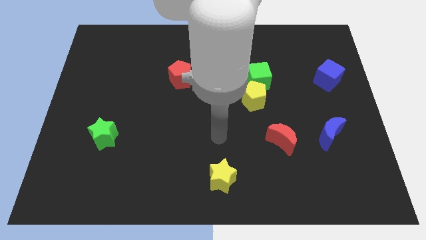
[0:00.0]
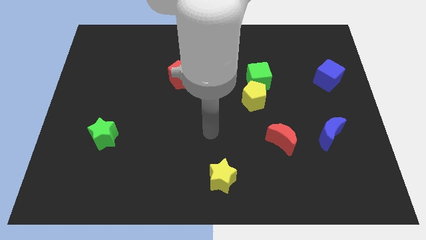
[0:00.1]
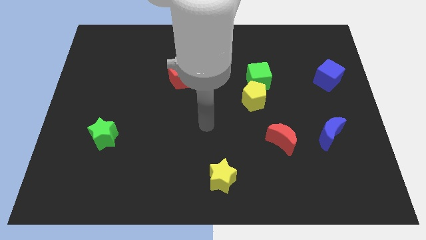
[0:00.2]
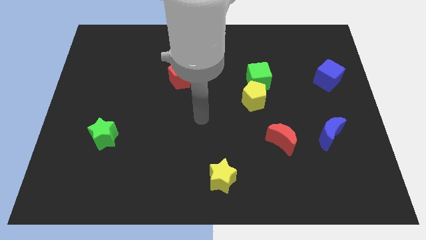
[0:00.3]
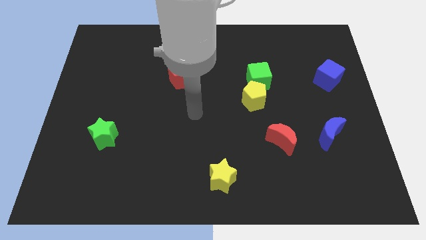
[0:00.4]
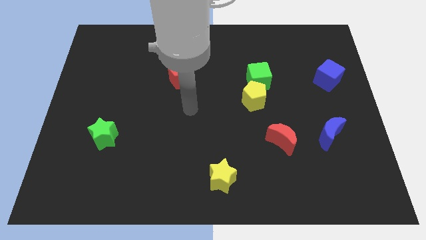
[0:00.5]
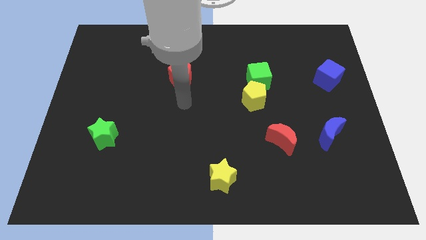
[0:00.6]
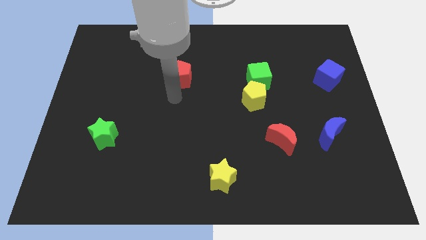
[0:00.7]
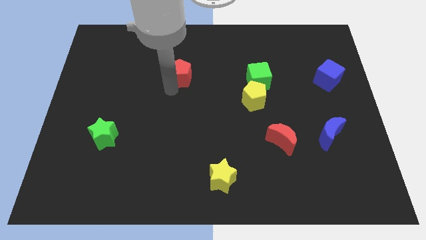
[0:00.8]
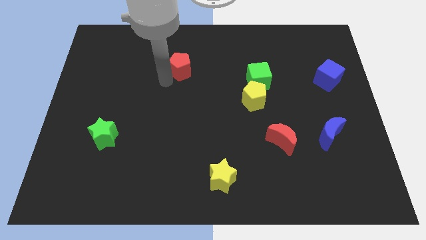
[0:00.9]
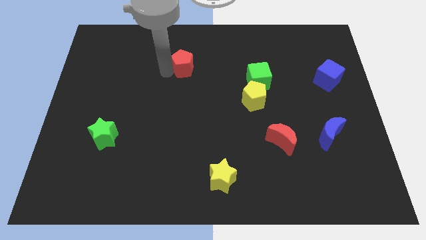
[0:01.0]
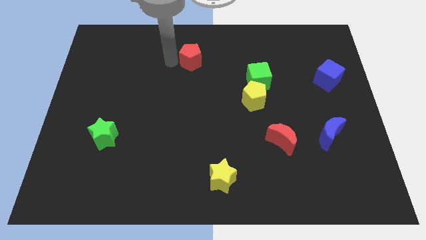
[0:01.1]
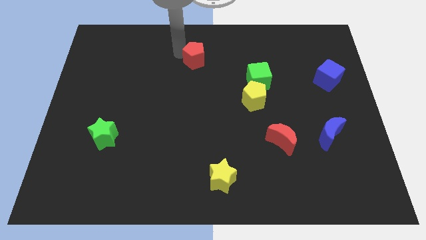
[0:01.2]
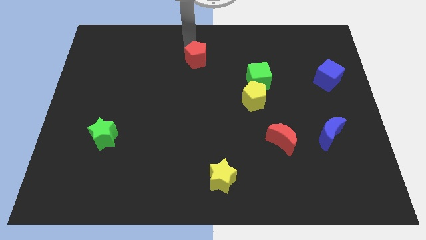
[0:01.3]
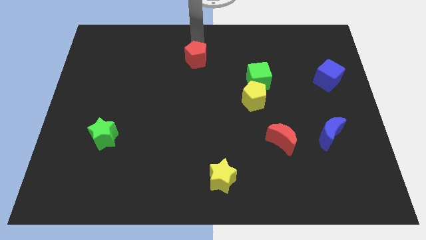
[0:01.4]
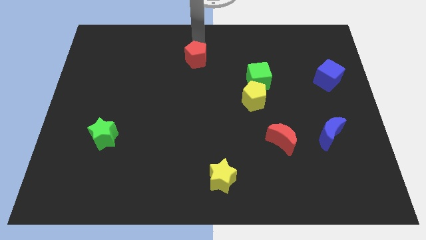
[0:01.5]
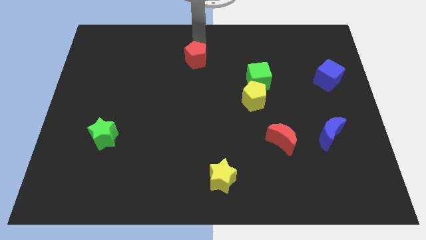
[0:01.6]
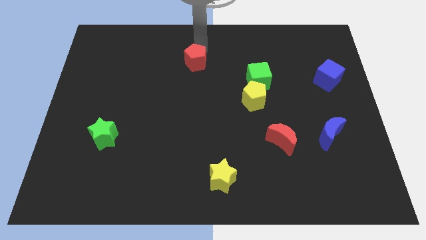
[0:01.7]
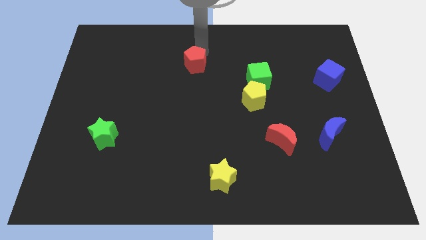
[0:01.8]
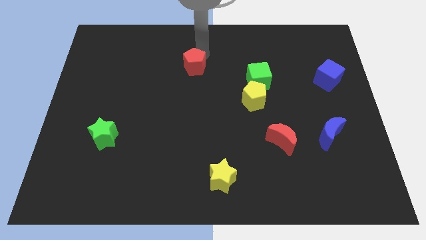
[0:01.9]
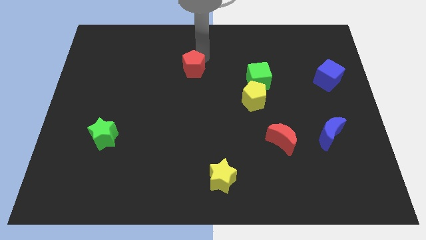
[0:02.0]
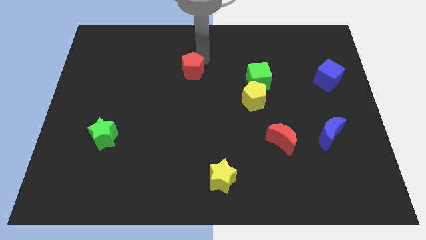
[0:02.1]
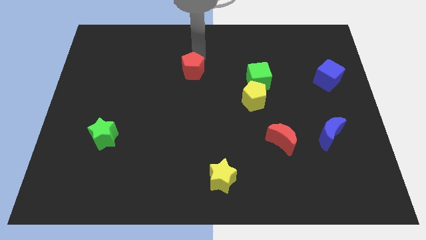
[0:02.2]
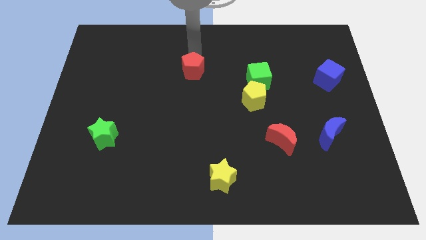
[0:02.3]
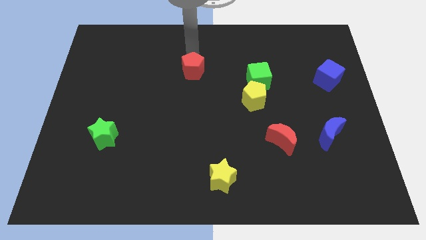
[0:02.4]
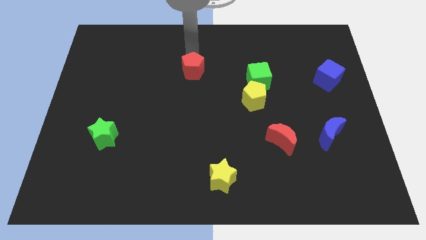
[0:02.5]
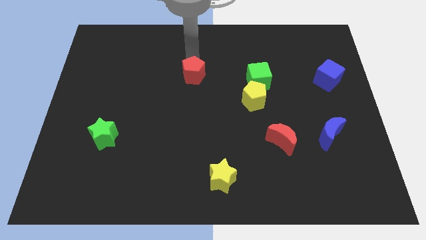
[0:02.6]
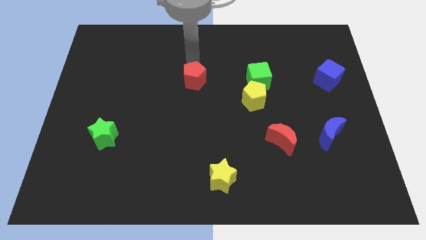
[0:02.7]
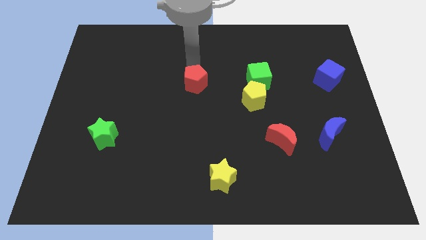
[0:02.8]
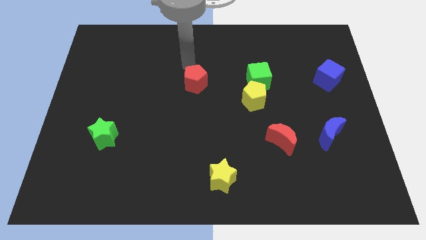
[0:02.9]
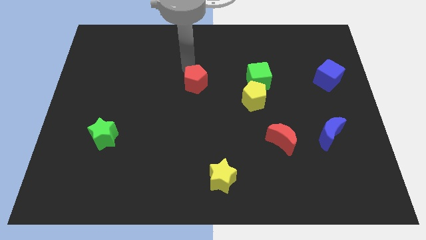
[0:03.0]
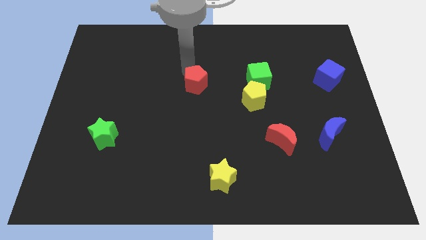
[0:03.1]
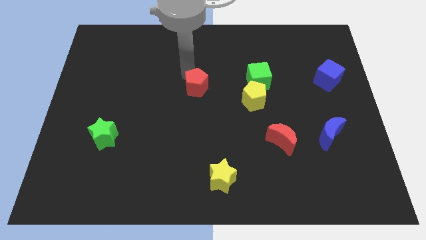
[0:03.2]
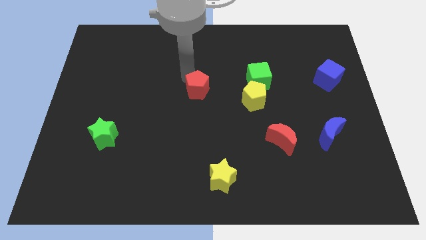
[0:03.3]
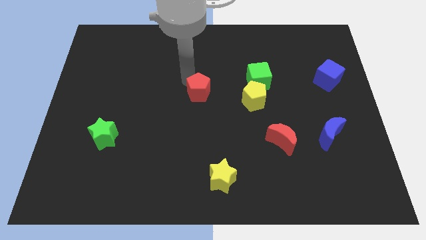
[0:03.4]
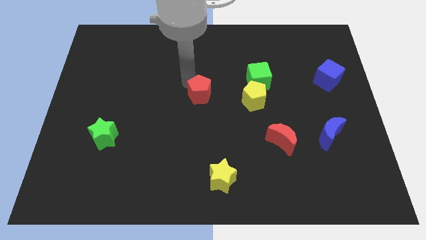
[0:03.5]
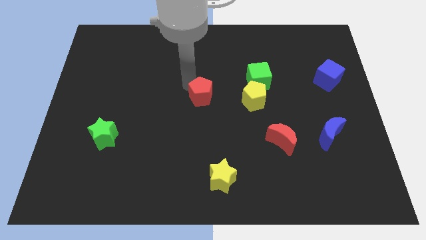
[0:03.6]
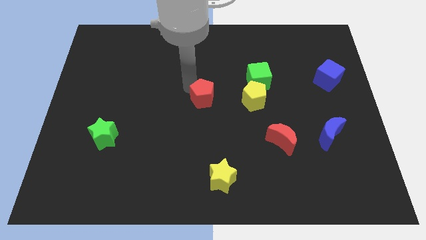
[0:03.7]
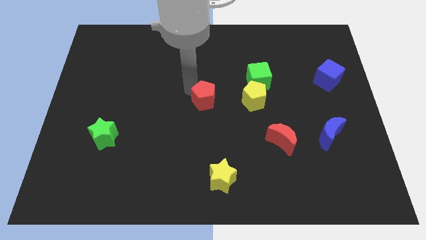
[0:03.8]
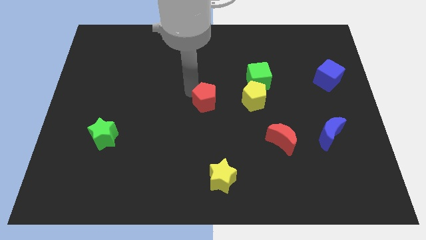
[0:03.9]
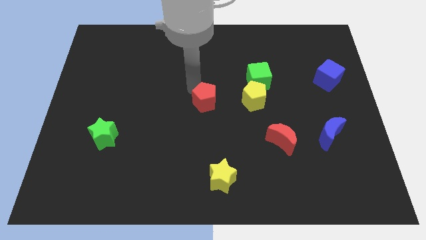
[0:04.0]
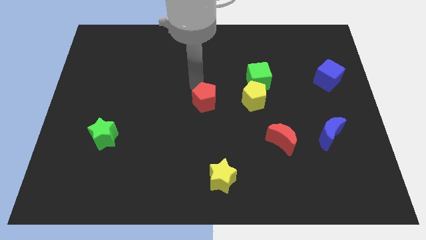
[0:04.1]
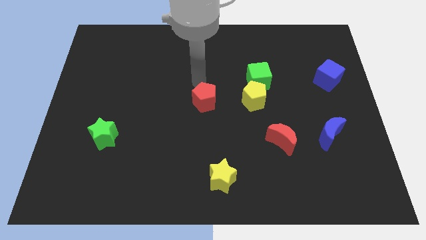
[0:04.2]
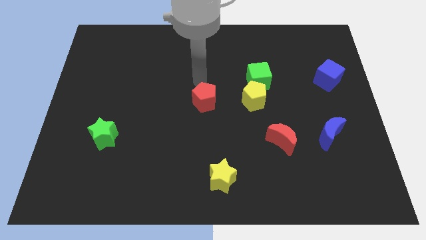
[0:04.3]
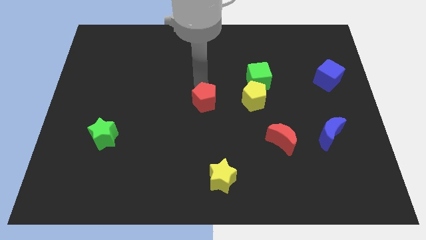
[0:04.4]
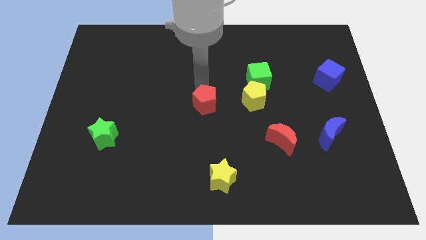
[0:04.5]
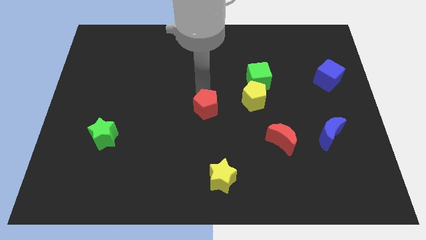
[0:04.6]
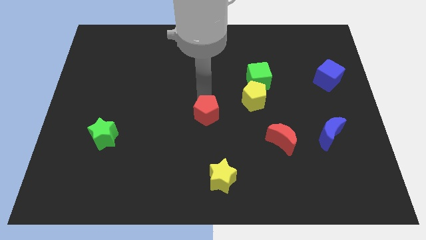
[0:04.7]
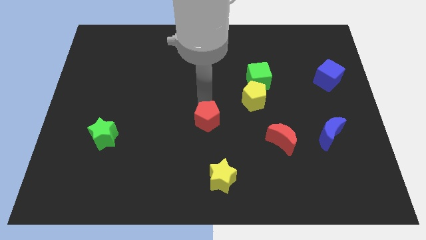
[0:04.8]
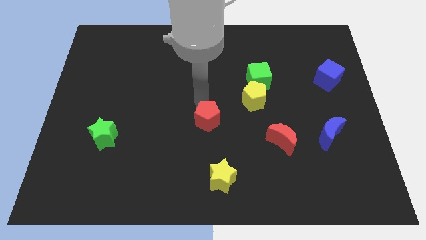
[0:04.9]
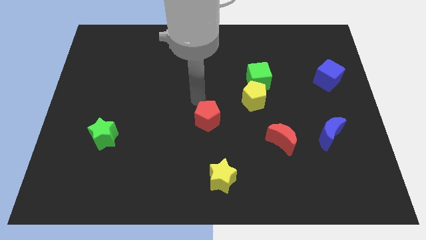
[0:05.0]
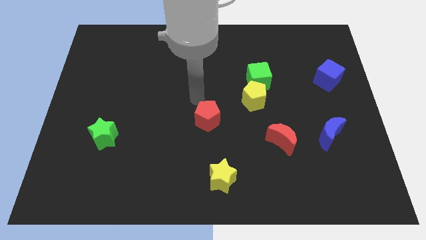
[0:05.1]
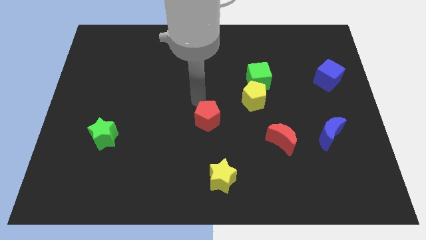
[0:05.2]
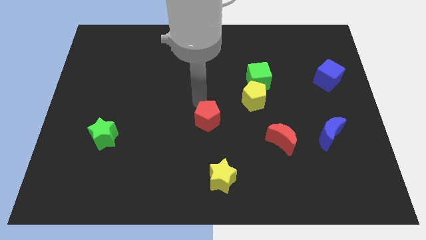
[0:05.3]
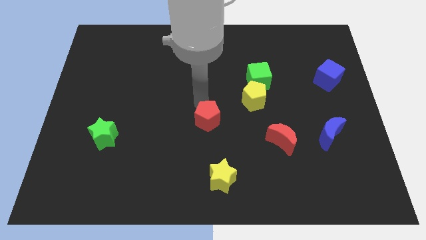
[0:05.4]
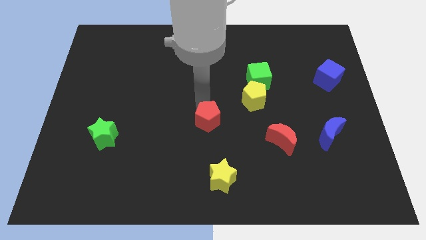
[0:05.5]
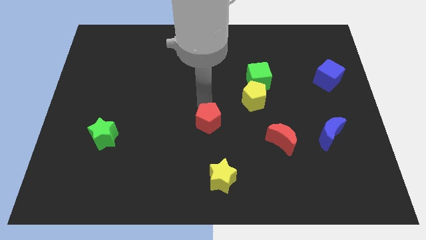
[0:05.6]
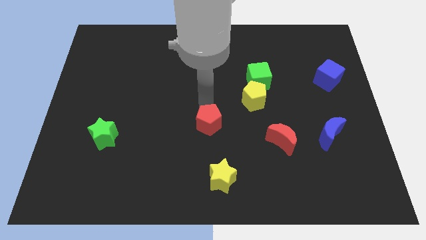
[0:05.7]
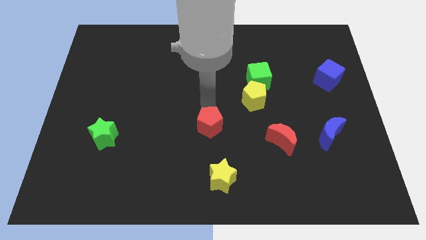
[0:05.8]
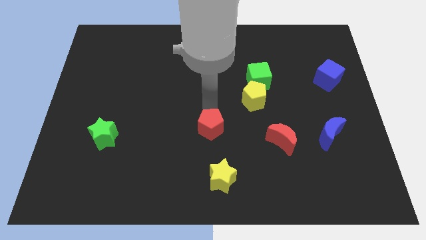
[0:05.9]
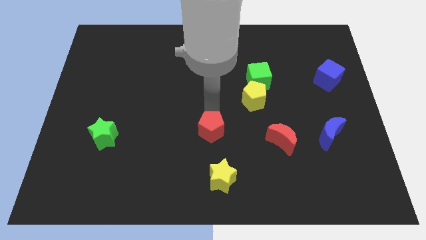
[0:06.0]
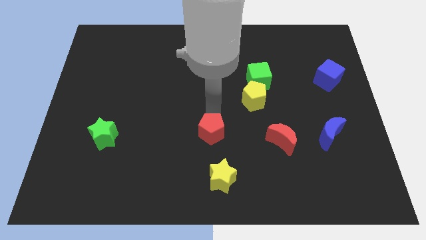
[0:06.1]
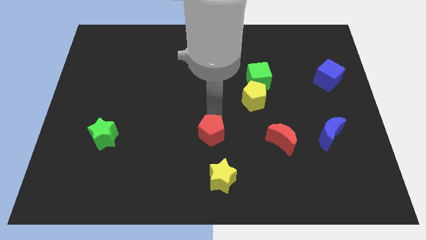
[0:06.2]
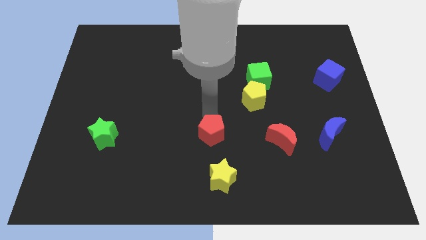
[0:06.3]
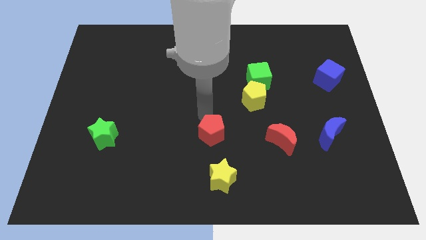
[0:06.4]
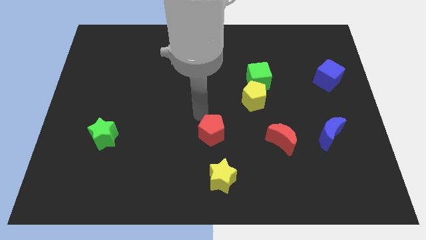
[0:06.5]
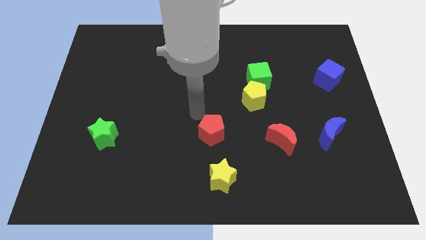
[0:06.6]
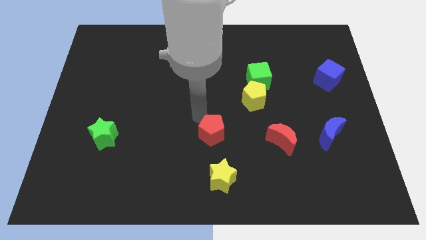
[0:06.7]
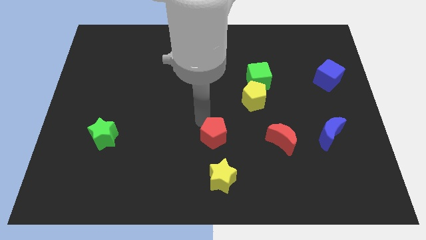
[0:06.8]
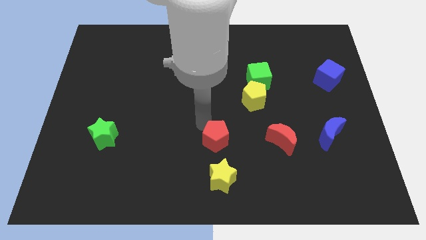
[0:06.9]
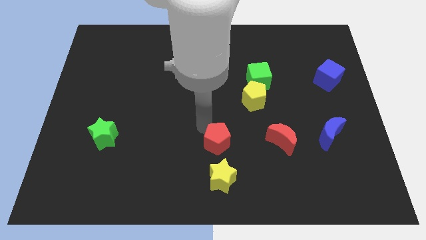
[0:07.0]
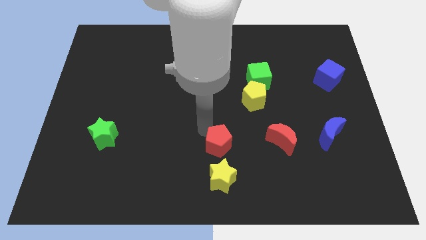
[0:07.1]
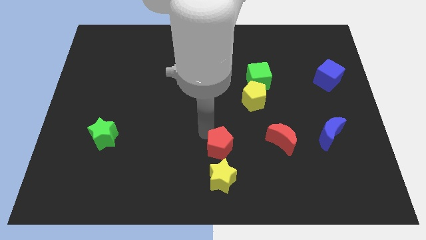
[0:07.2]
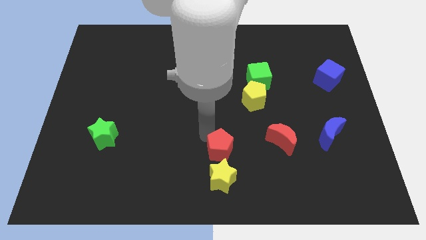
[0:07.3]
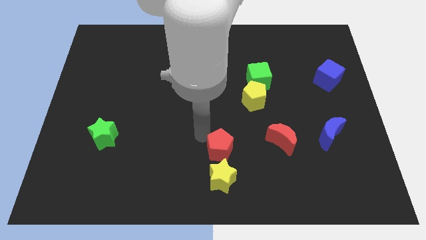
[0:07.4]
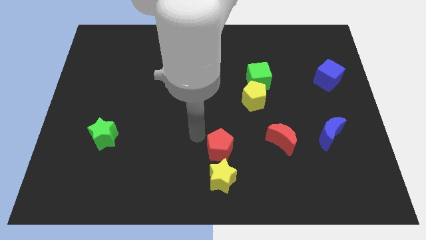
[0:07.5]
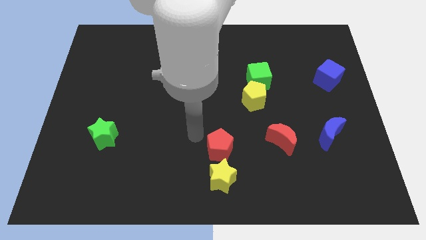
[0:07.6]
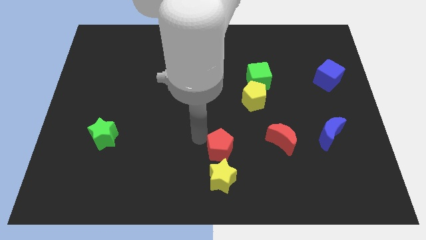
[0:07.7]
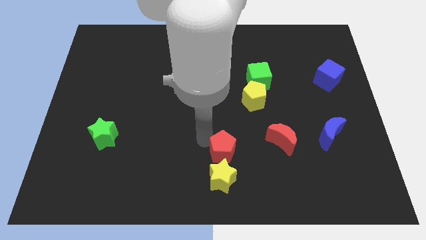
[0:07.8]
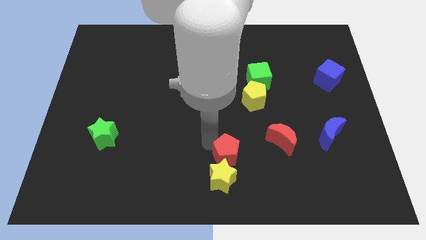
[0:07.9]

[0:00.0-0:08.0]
move the red pentagon diagonally downwards and to the right
